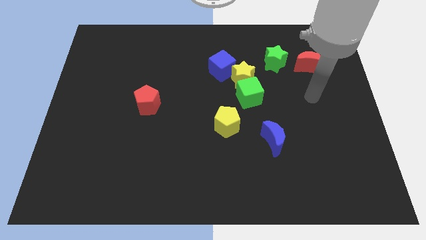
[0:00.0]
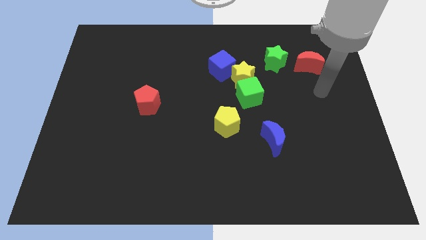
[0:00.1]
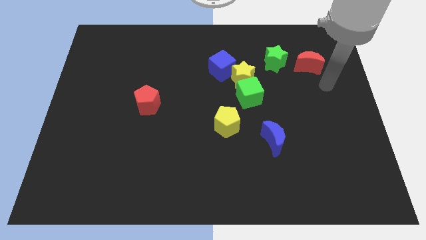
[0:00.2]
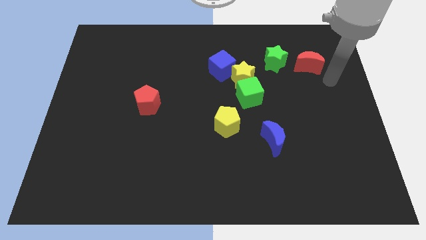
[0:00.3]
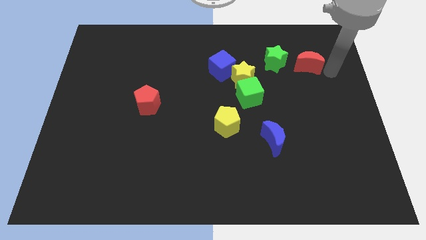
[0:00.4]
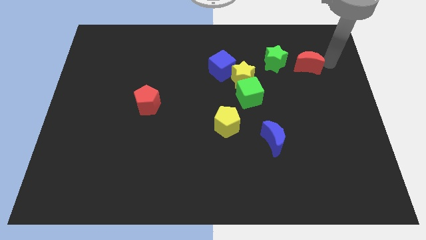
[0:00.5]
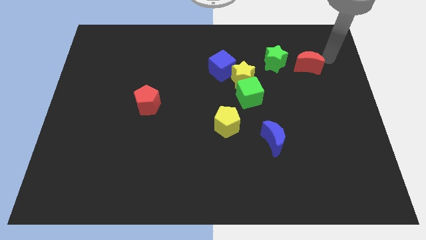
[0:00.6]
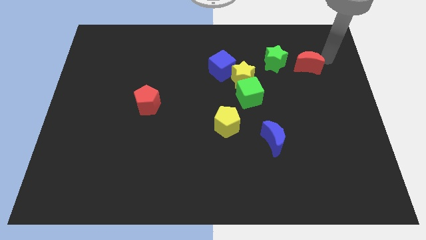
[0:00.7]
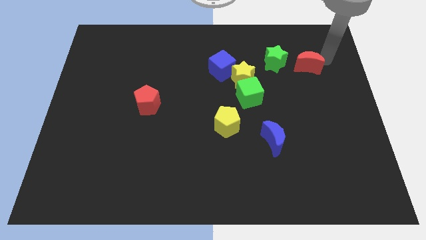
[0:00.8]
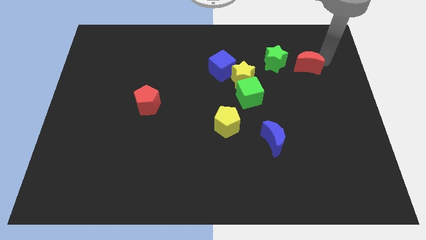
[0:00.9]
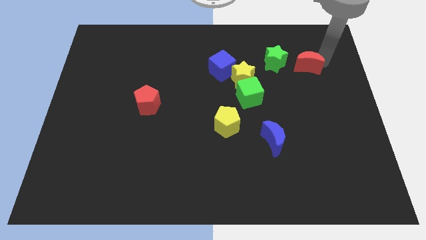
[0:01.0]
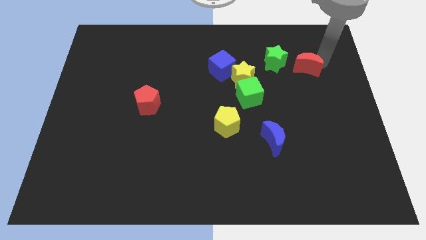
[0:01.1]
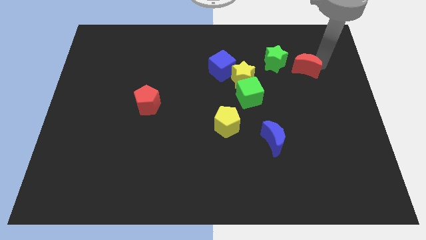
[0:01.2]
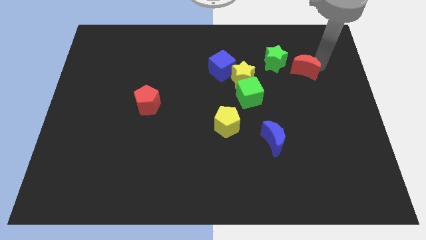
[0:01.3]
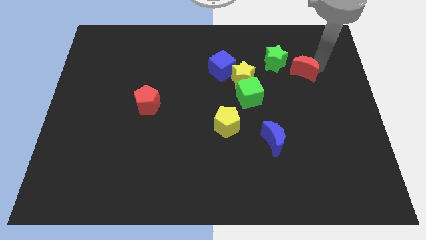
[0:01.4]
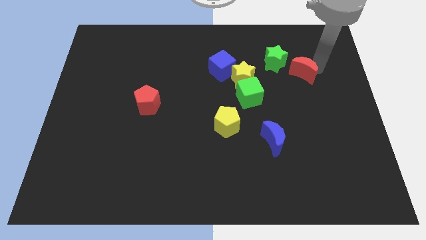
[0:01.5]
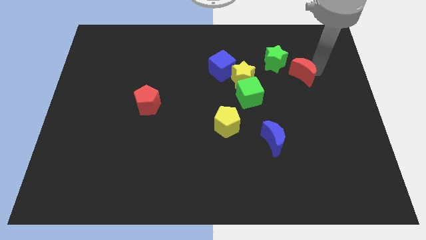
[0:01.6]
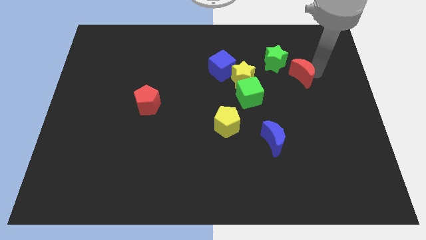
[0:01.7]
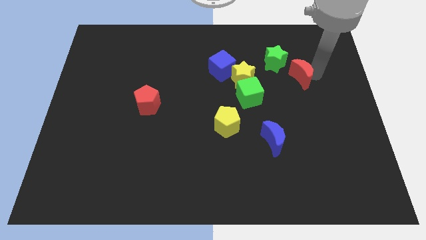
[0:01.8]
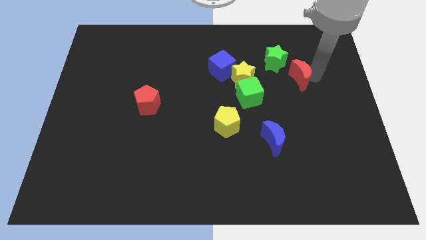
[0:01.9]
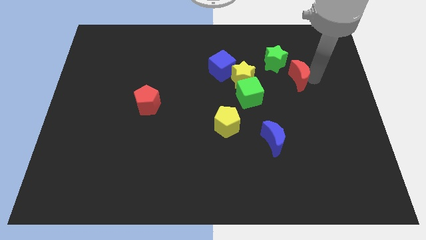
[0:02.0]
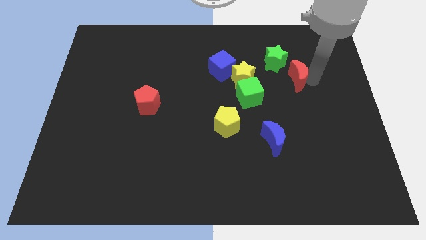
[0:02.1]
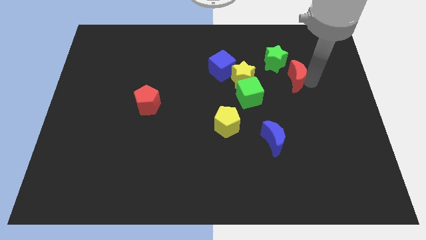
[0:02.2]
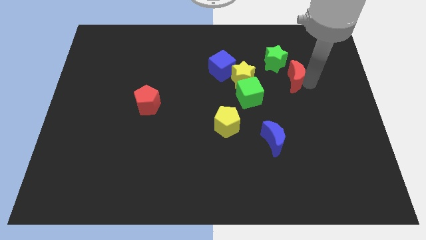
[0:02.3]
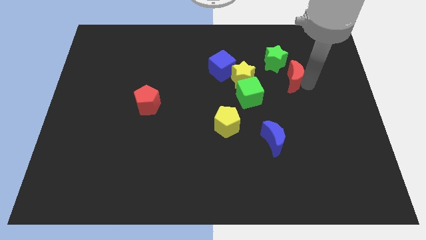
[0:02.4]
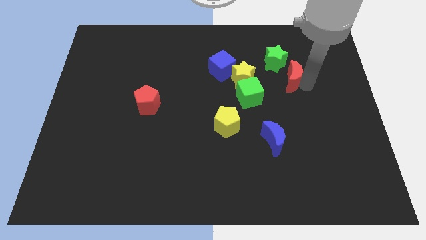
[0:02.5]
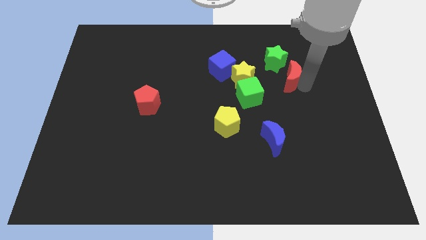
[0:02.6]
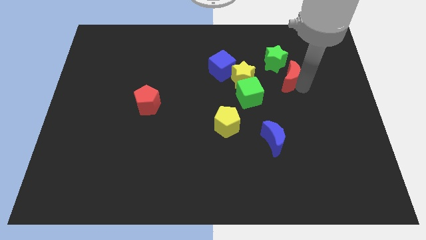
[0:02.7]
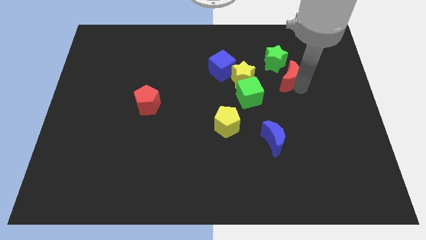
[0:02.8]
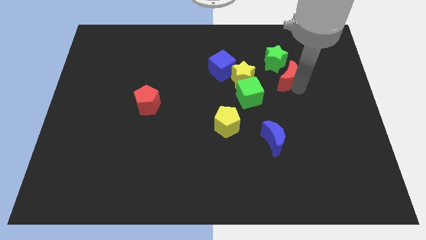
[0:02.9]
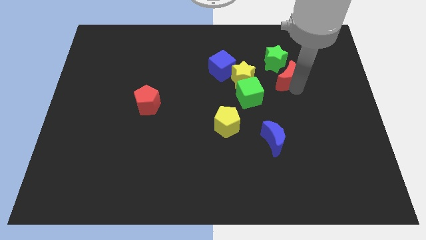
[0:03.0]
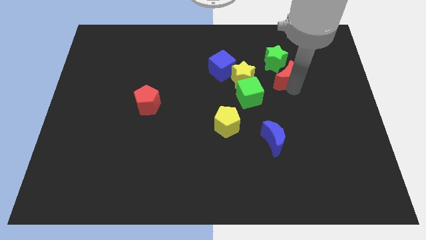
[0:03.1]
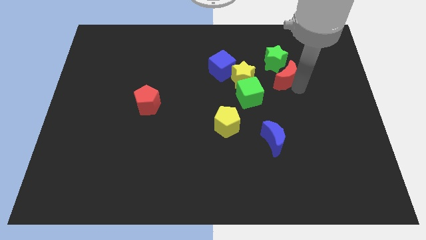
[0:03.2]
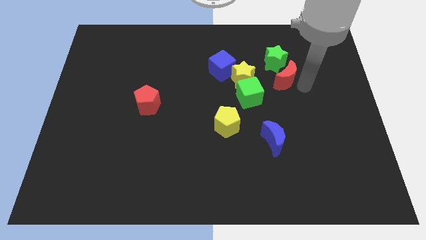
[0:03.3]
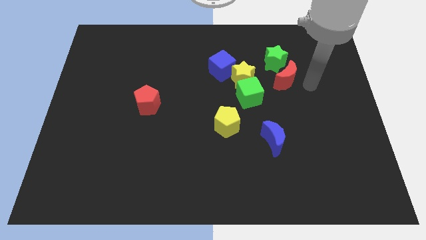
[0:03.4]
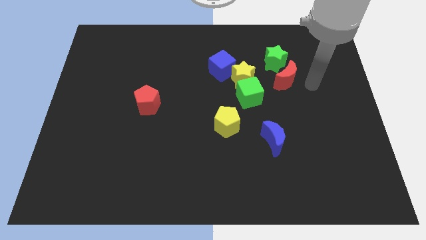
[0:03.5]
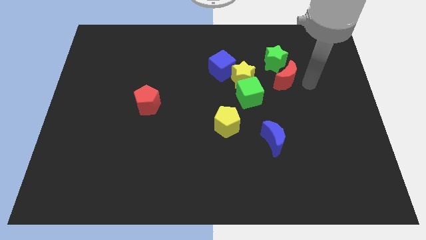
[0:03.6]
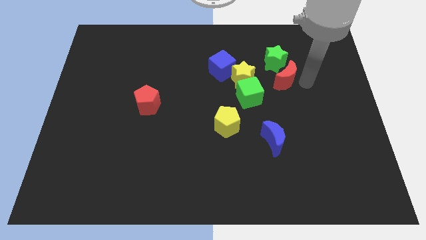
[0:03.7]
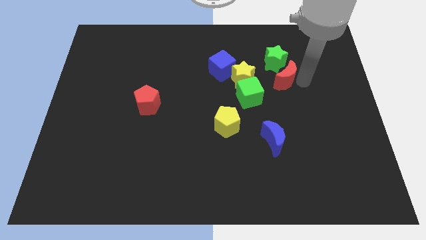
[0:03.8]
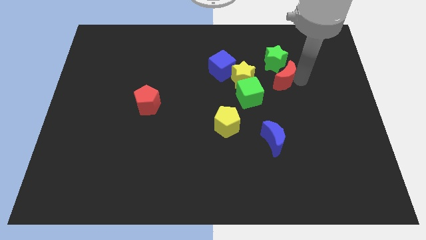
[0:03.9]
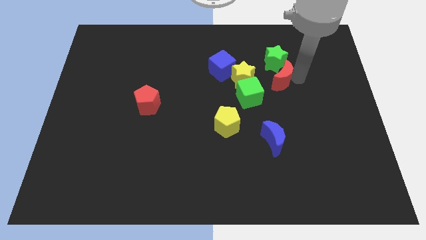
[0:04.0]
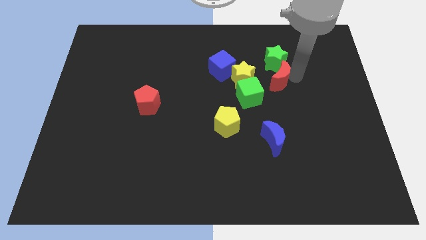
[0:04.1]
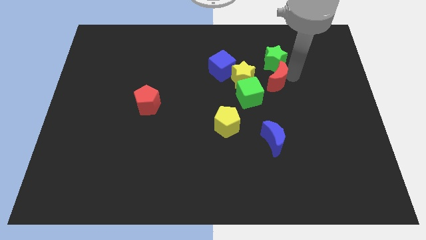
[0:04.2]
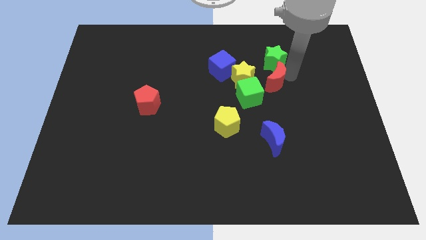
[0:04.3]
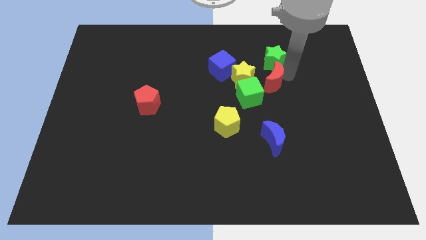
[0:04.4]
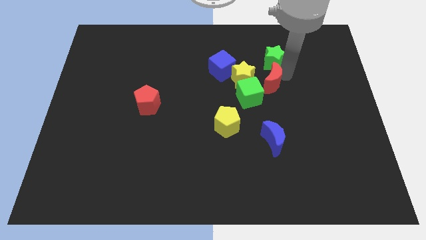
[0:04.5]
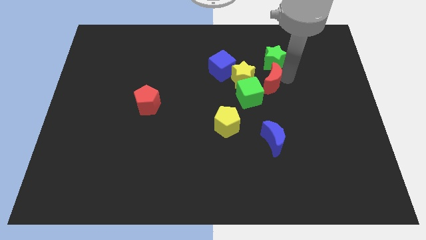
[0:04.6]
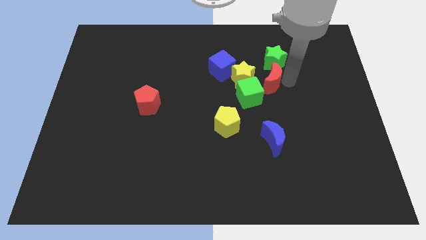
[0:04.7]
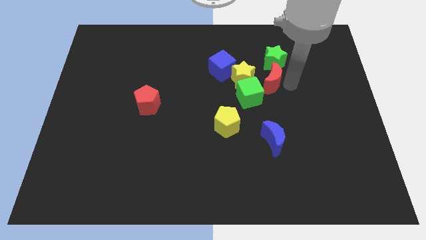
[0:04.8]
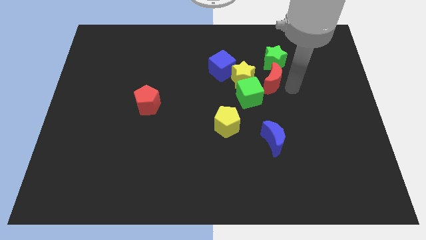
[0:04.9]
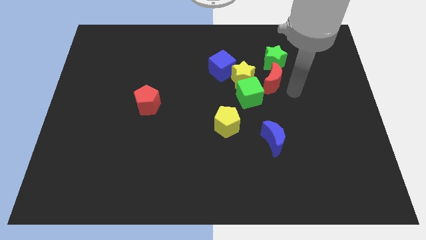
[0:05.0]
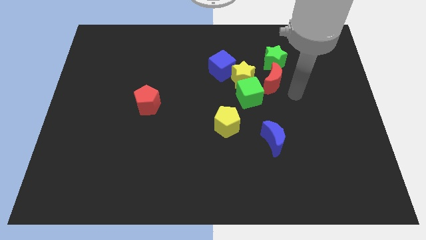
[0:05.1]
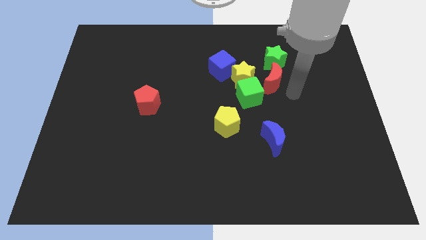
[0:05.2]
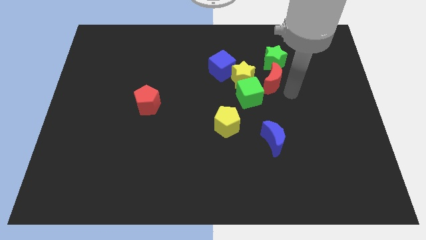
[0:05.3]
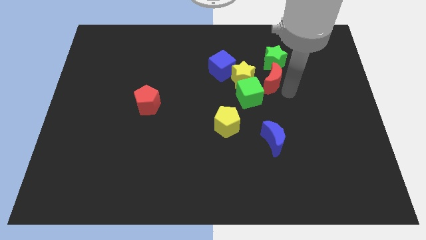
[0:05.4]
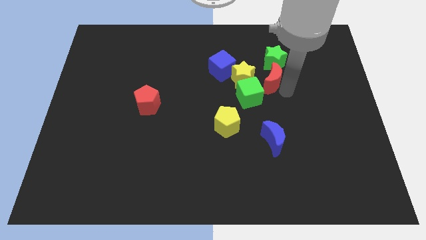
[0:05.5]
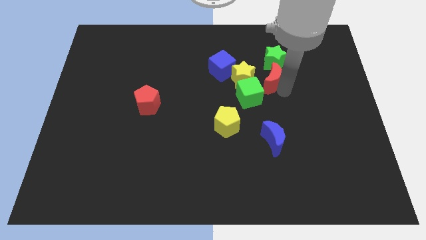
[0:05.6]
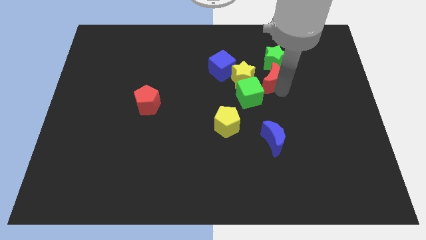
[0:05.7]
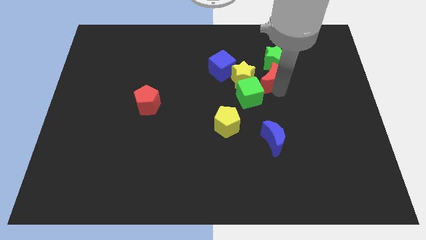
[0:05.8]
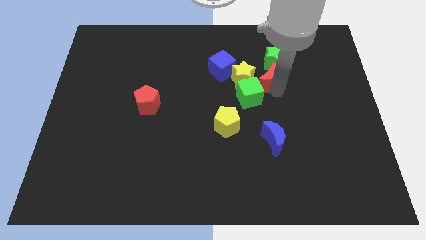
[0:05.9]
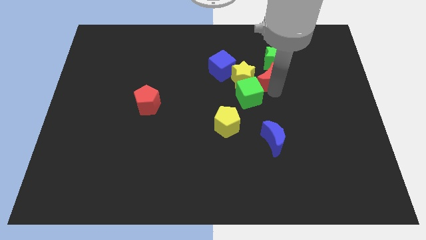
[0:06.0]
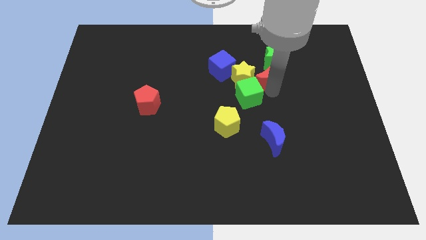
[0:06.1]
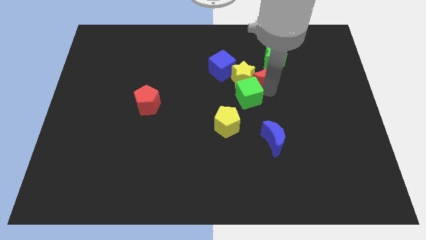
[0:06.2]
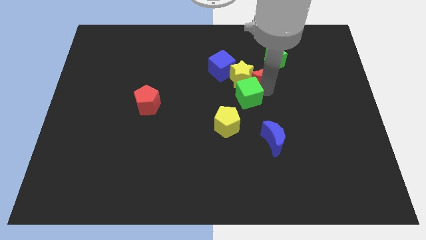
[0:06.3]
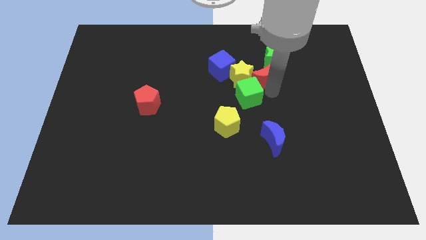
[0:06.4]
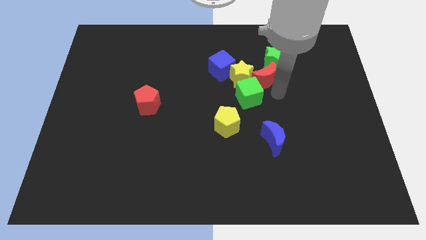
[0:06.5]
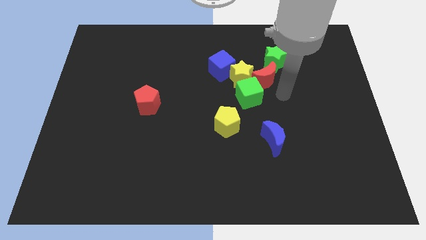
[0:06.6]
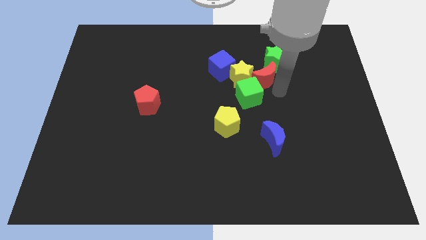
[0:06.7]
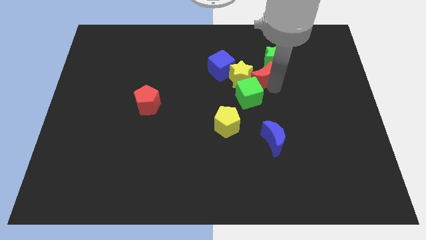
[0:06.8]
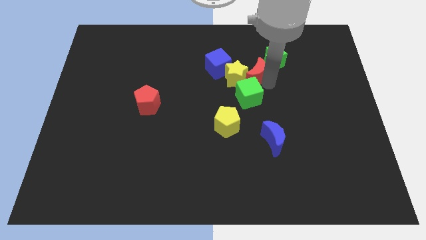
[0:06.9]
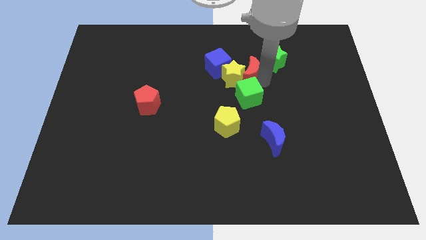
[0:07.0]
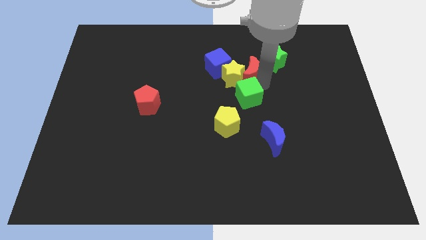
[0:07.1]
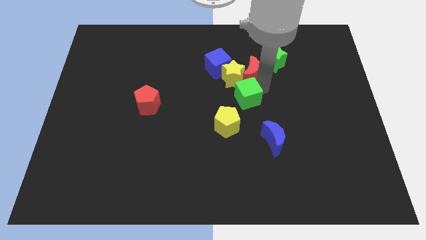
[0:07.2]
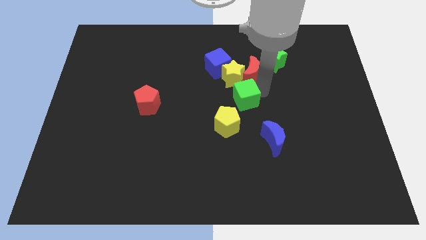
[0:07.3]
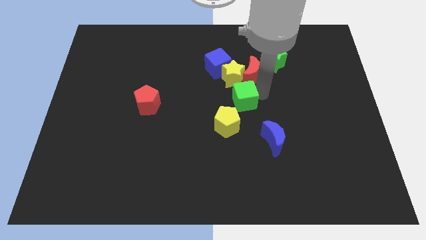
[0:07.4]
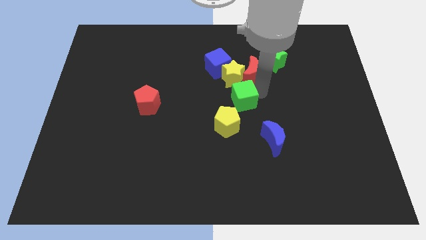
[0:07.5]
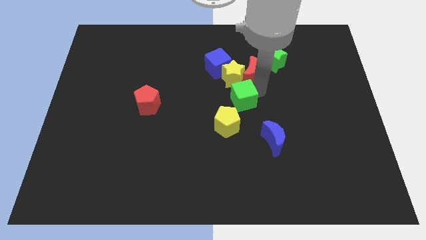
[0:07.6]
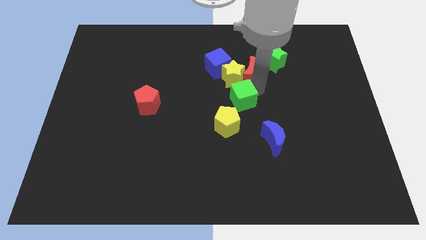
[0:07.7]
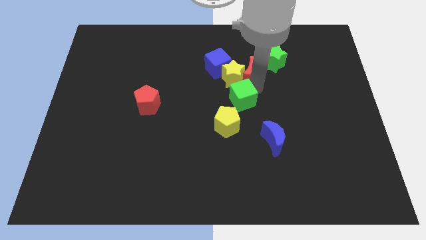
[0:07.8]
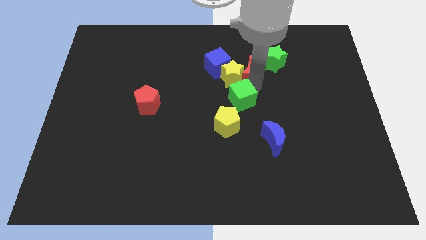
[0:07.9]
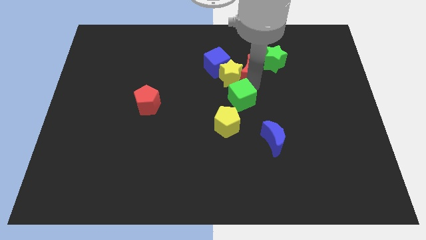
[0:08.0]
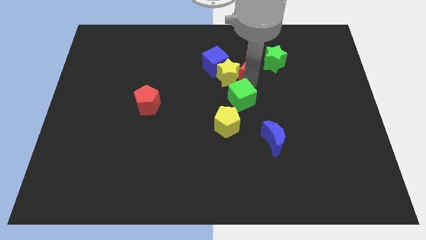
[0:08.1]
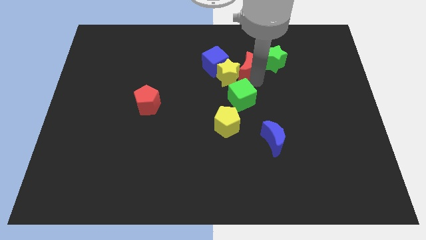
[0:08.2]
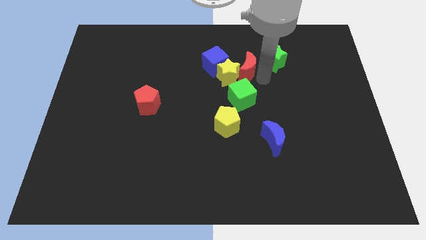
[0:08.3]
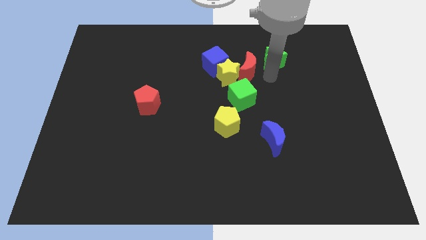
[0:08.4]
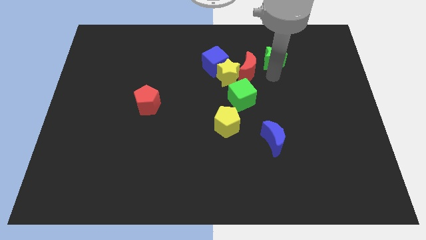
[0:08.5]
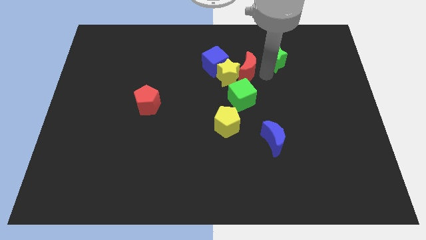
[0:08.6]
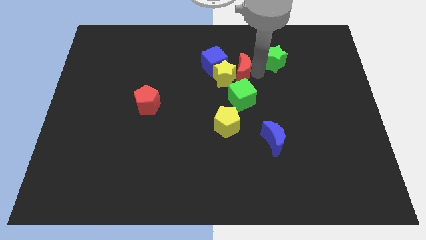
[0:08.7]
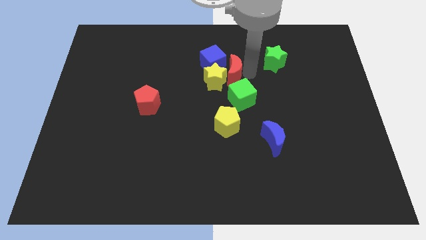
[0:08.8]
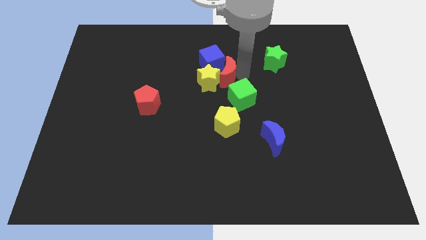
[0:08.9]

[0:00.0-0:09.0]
slide the red moon towards the blue cube
